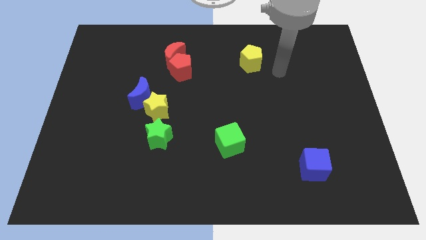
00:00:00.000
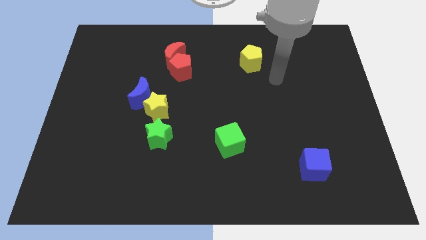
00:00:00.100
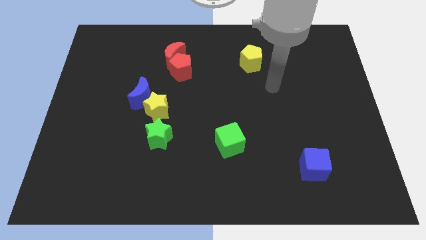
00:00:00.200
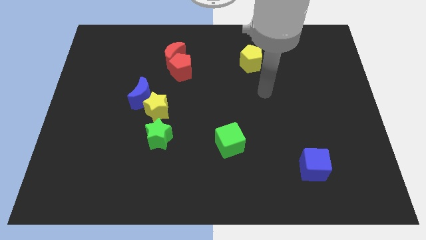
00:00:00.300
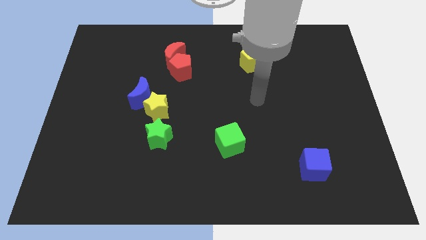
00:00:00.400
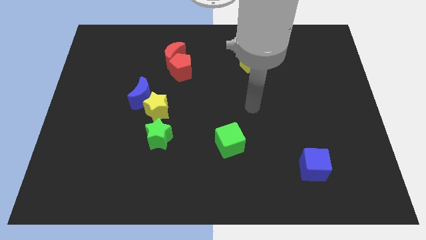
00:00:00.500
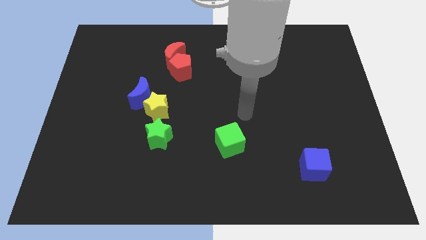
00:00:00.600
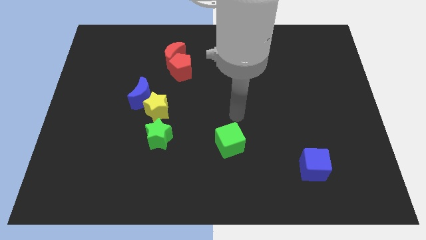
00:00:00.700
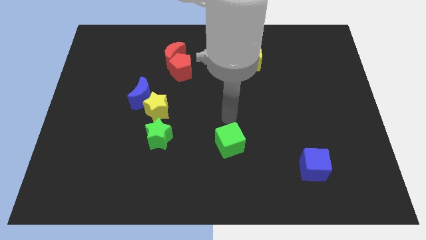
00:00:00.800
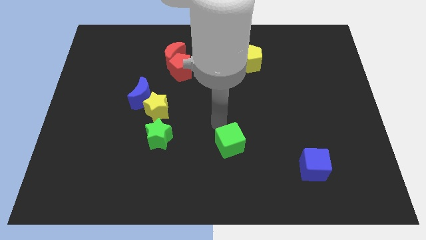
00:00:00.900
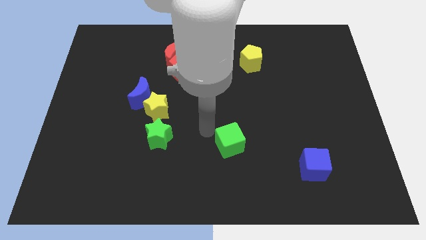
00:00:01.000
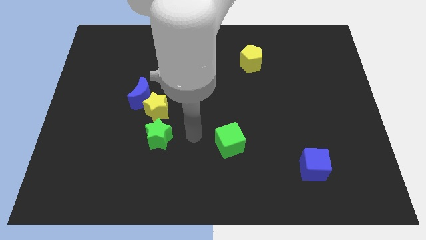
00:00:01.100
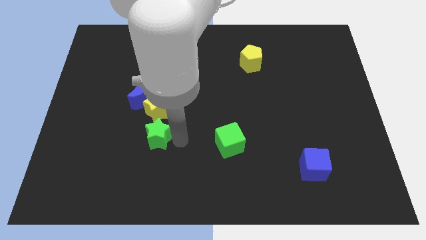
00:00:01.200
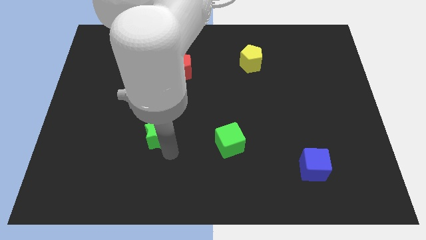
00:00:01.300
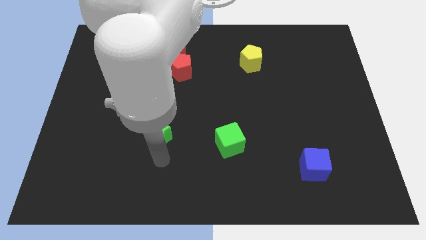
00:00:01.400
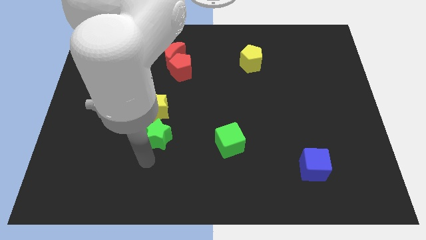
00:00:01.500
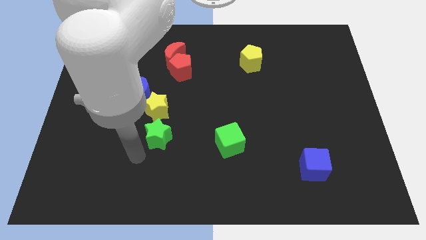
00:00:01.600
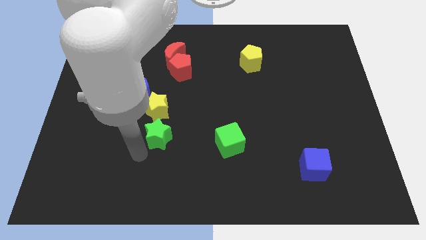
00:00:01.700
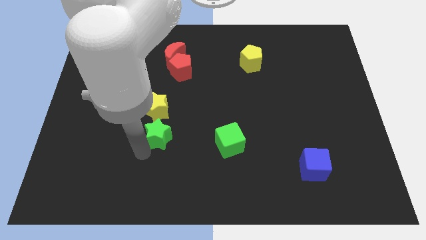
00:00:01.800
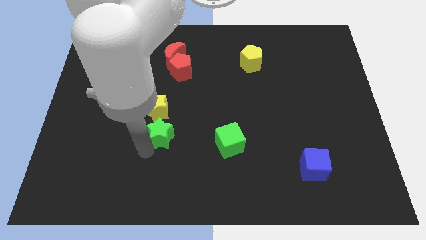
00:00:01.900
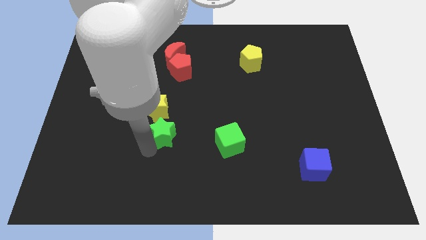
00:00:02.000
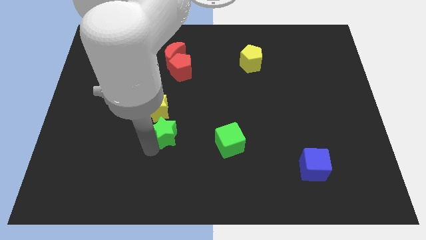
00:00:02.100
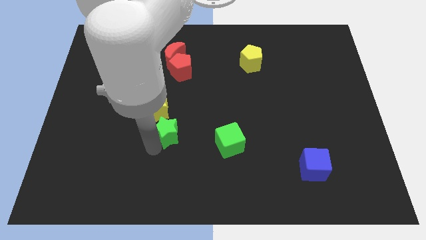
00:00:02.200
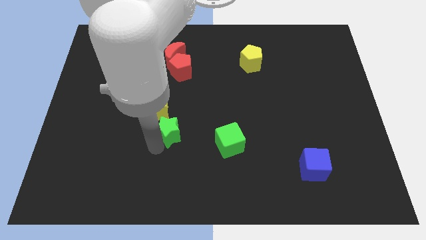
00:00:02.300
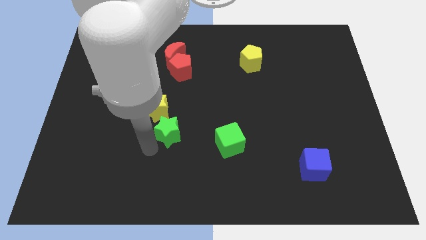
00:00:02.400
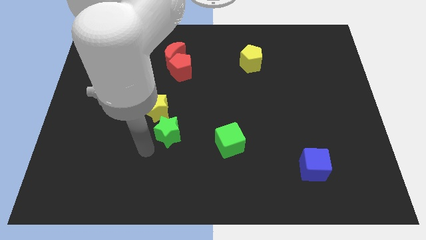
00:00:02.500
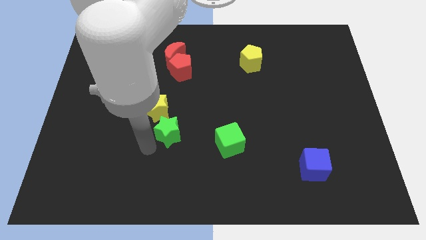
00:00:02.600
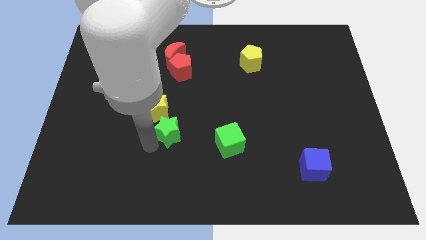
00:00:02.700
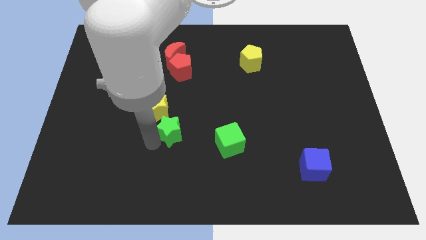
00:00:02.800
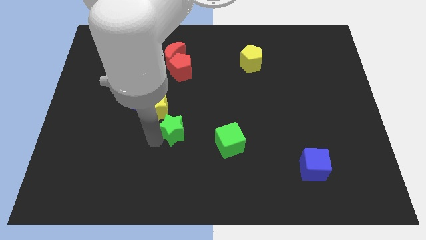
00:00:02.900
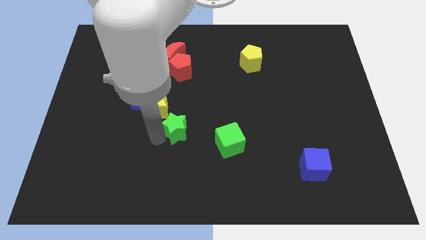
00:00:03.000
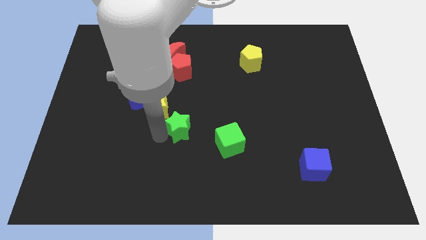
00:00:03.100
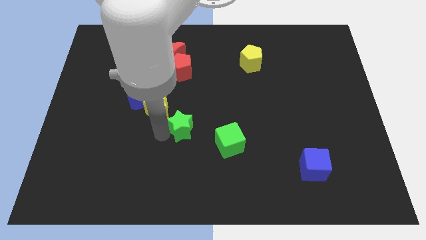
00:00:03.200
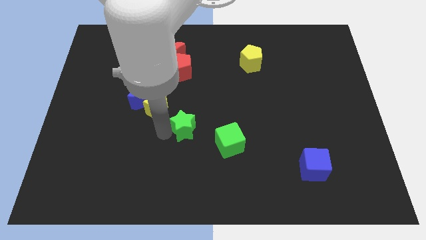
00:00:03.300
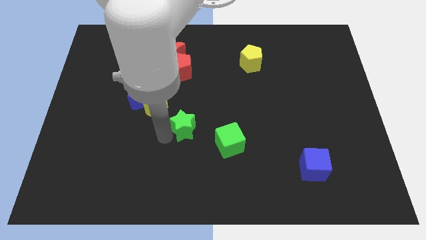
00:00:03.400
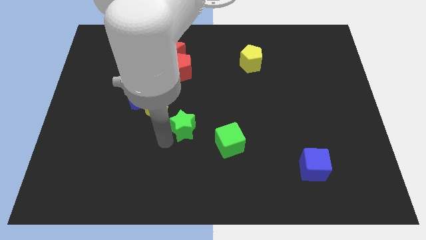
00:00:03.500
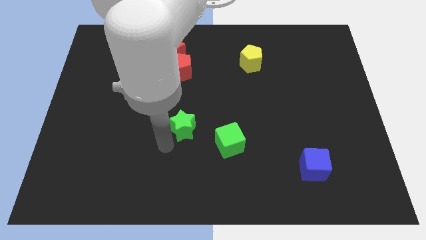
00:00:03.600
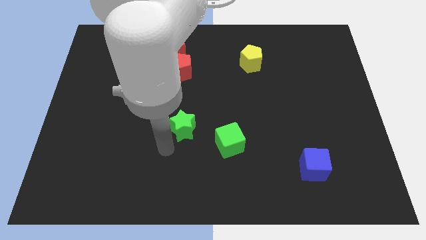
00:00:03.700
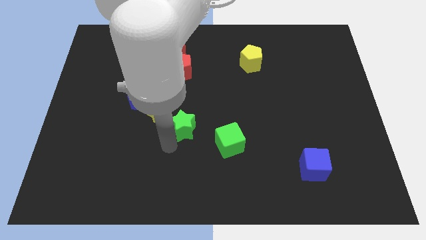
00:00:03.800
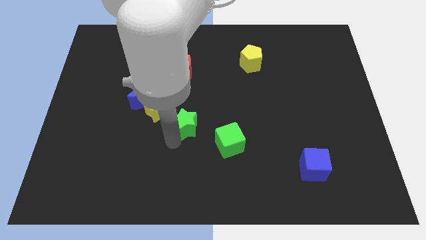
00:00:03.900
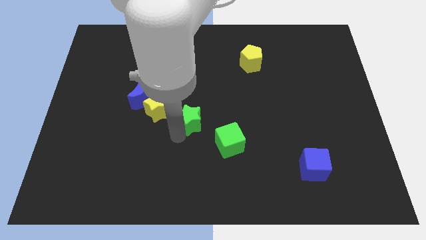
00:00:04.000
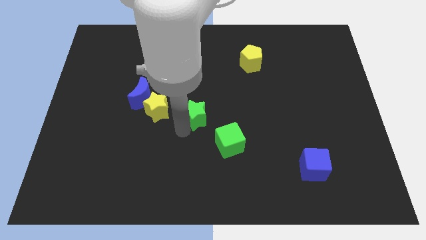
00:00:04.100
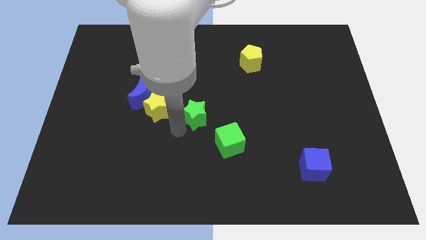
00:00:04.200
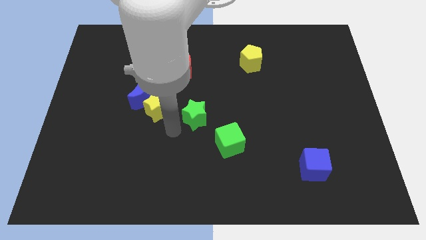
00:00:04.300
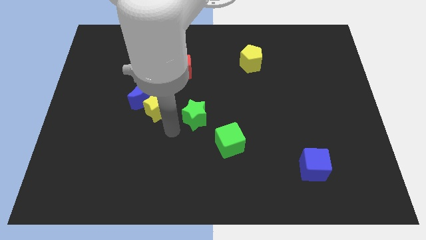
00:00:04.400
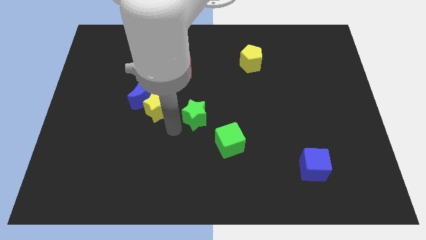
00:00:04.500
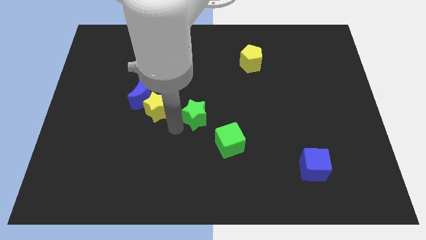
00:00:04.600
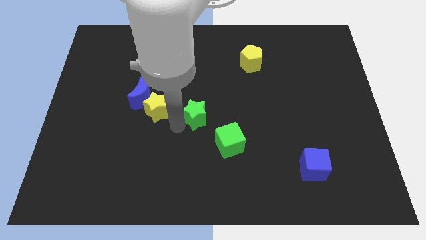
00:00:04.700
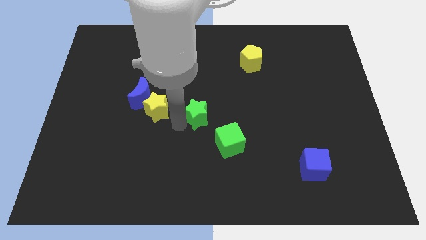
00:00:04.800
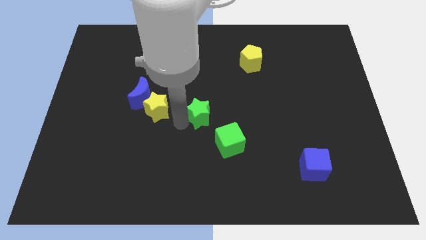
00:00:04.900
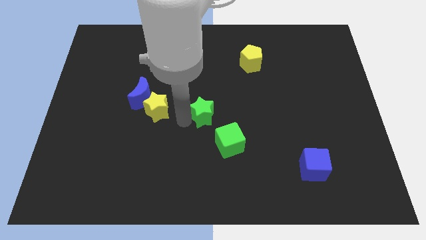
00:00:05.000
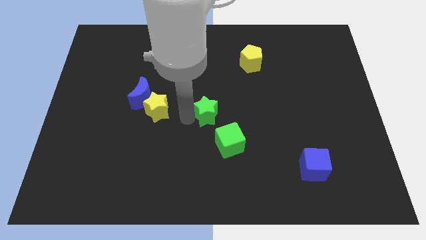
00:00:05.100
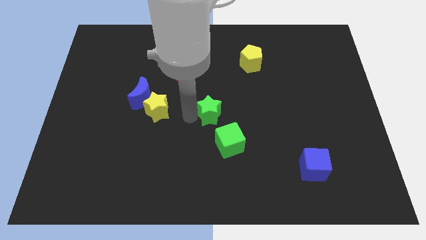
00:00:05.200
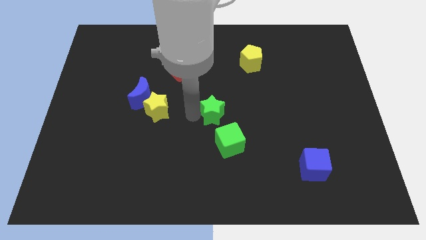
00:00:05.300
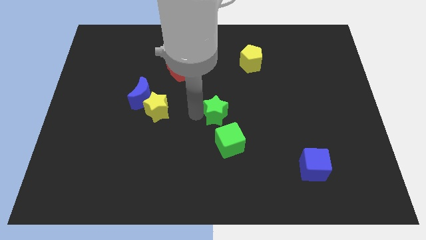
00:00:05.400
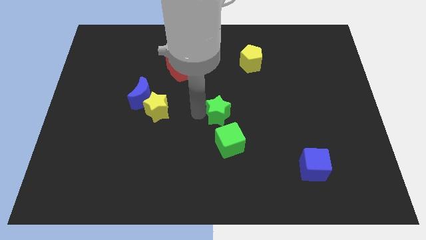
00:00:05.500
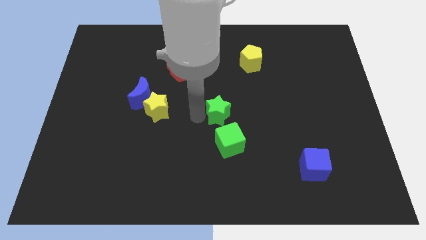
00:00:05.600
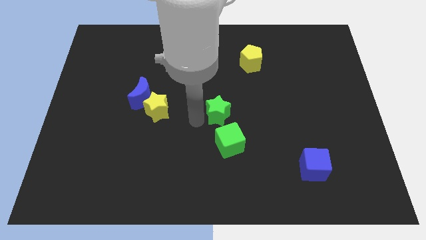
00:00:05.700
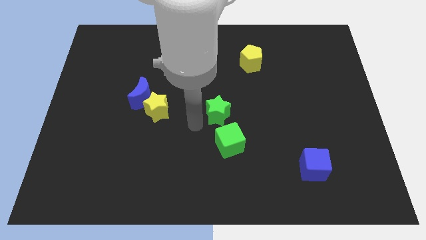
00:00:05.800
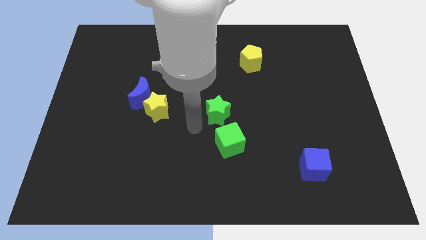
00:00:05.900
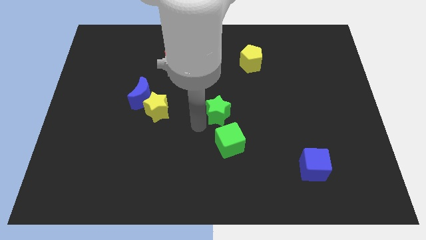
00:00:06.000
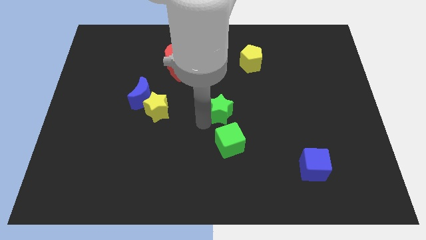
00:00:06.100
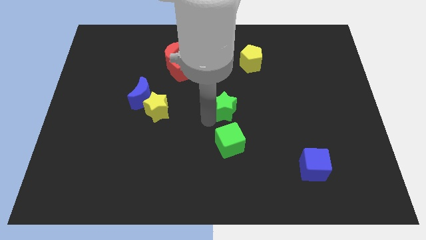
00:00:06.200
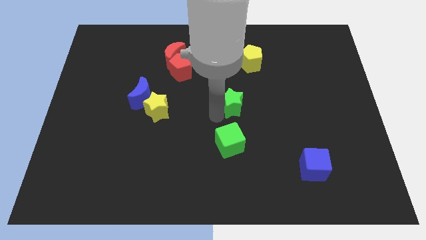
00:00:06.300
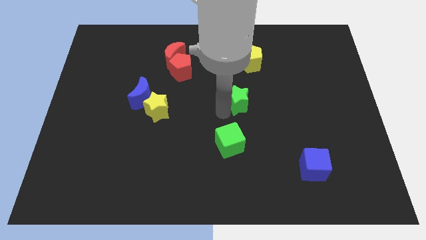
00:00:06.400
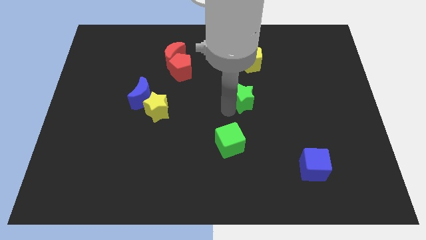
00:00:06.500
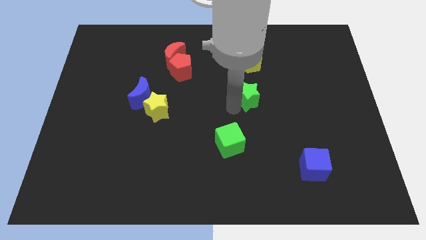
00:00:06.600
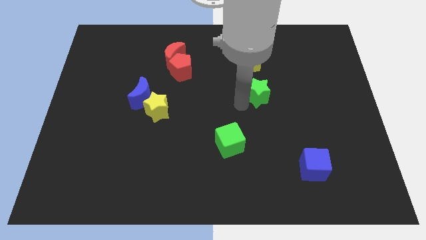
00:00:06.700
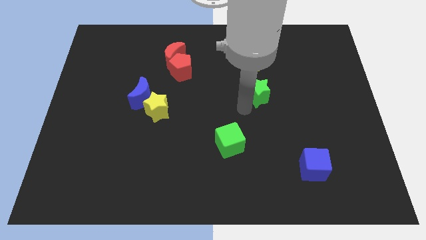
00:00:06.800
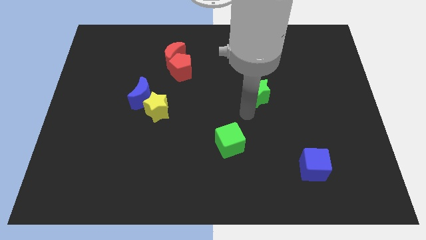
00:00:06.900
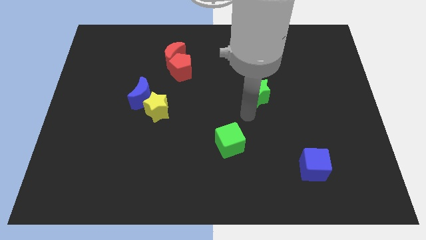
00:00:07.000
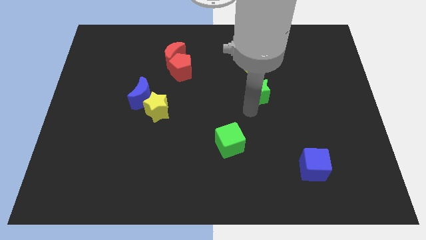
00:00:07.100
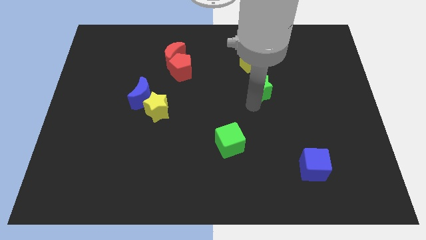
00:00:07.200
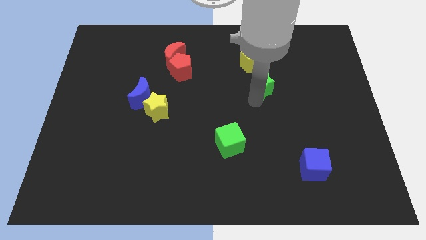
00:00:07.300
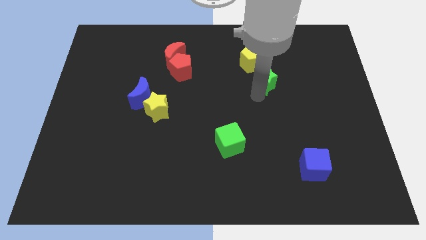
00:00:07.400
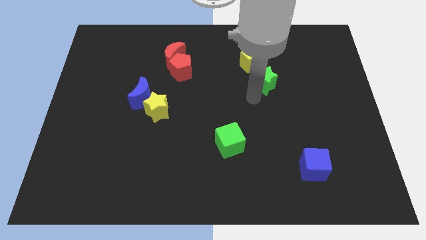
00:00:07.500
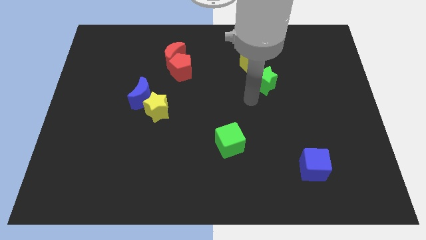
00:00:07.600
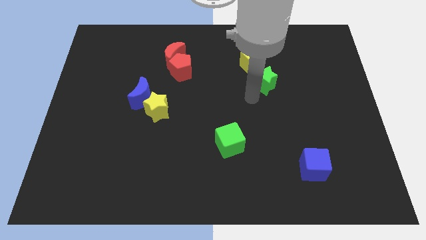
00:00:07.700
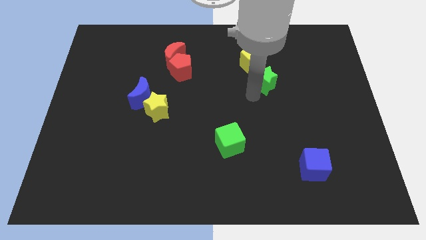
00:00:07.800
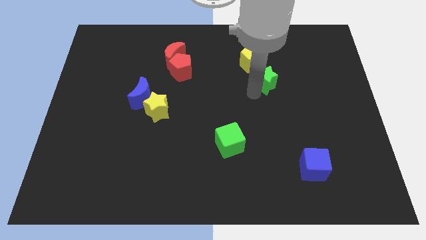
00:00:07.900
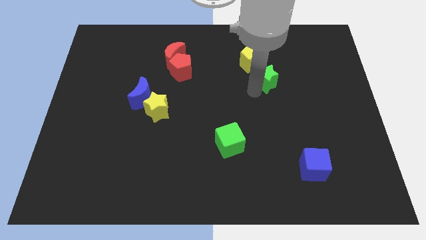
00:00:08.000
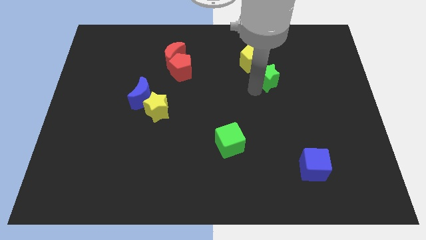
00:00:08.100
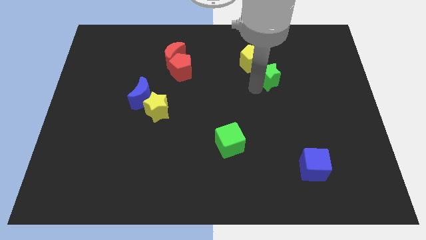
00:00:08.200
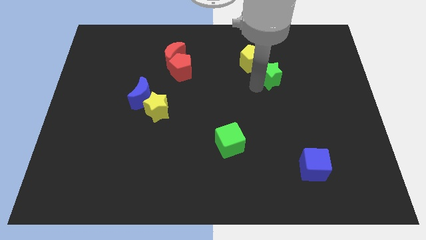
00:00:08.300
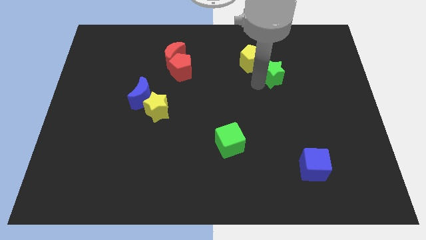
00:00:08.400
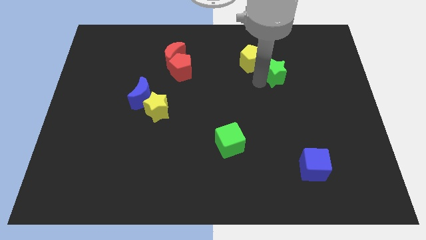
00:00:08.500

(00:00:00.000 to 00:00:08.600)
put the green star right of the yellow pentagon
